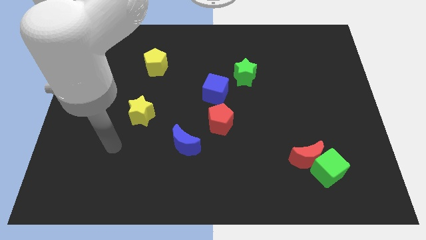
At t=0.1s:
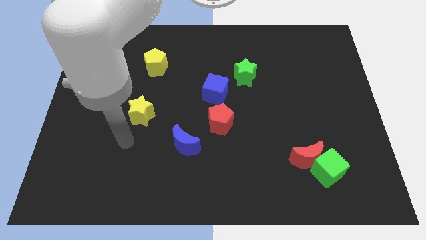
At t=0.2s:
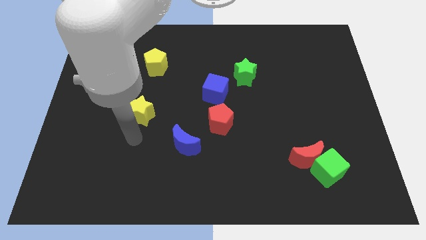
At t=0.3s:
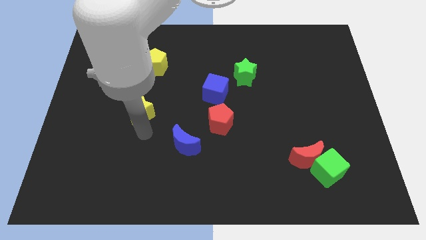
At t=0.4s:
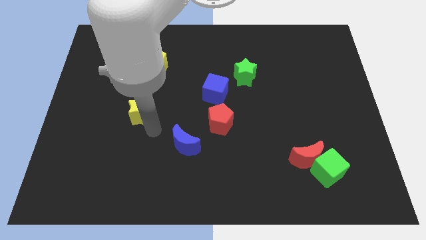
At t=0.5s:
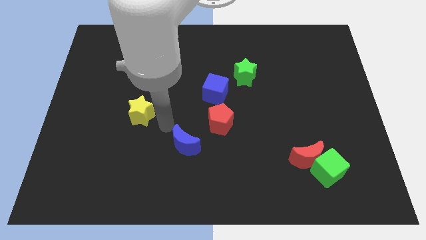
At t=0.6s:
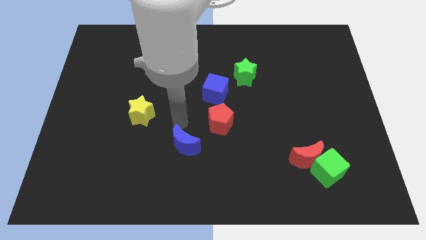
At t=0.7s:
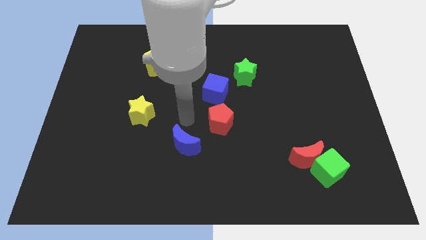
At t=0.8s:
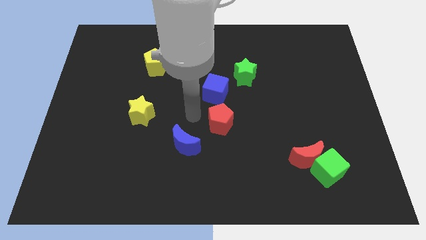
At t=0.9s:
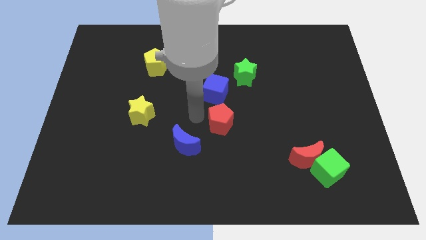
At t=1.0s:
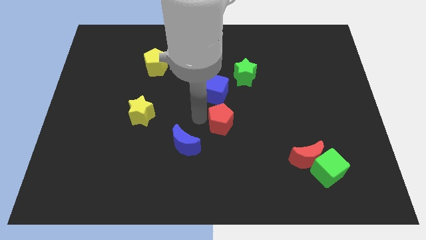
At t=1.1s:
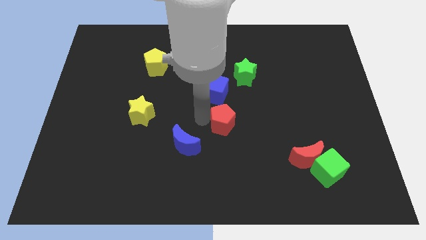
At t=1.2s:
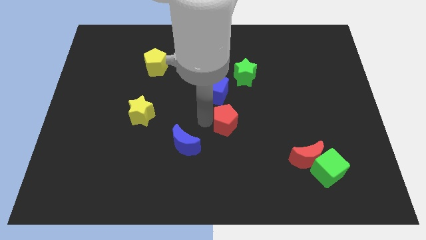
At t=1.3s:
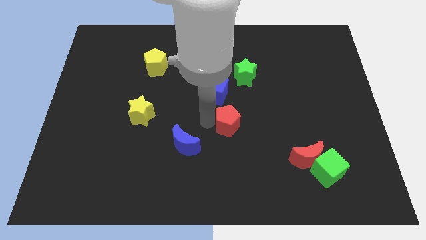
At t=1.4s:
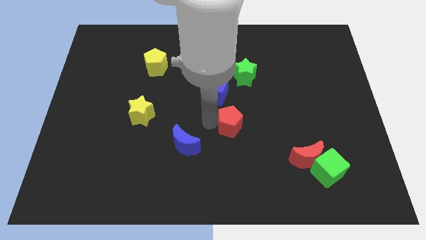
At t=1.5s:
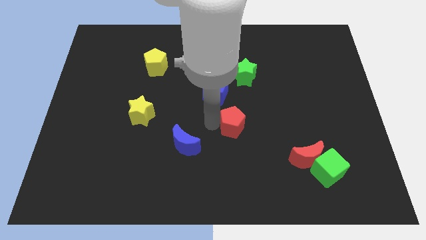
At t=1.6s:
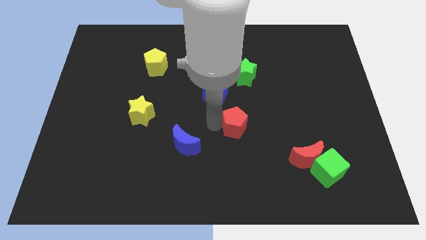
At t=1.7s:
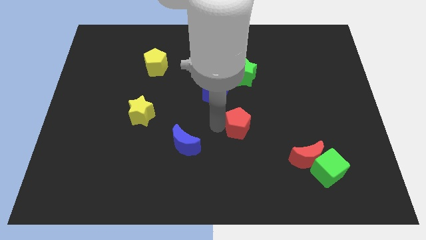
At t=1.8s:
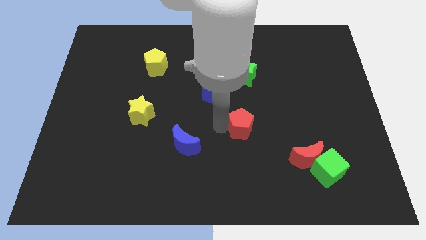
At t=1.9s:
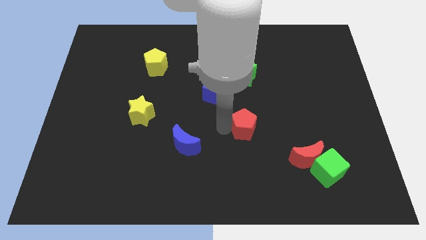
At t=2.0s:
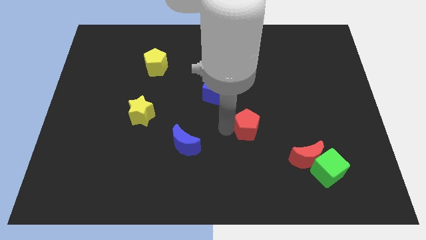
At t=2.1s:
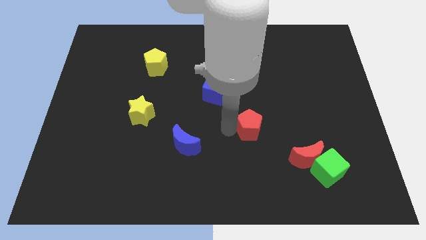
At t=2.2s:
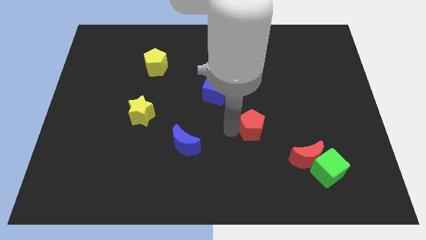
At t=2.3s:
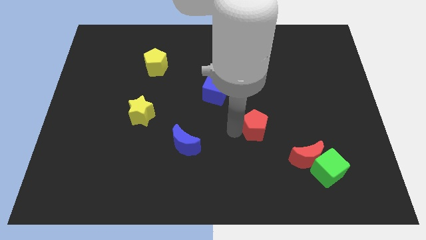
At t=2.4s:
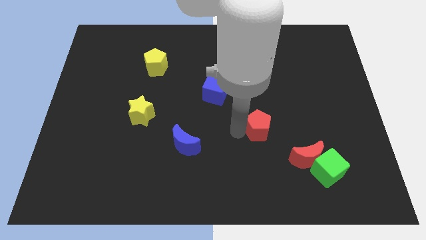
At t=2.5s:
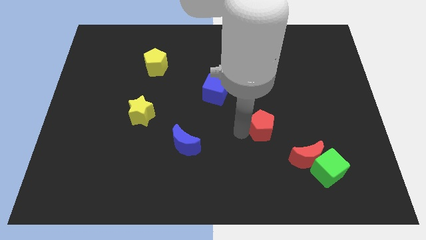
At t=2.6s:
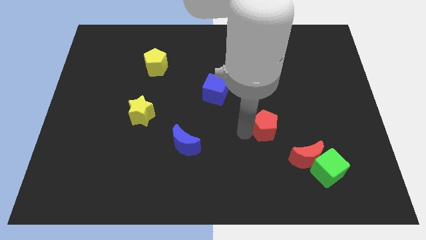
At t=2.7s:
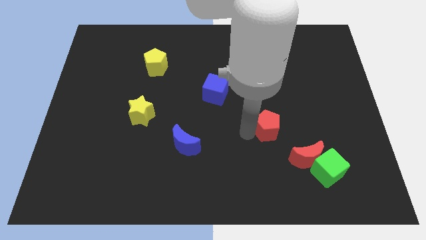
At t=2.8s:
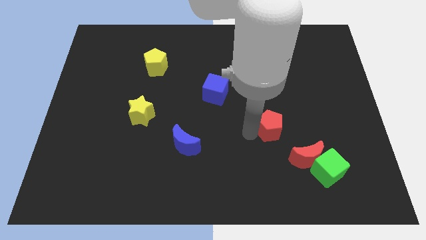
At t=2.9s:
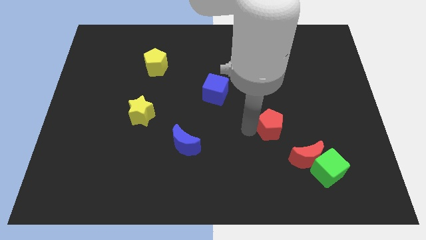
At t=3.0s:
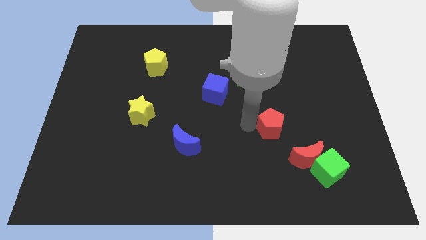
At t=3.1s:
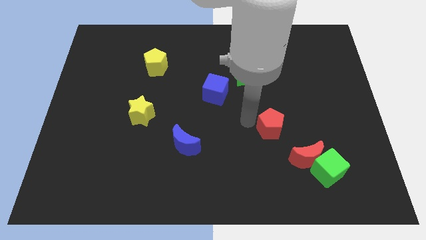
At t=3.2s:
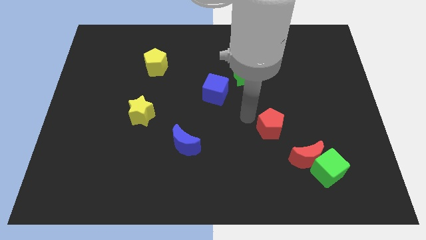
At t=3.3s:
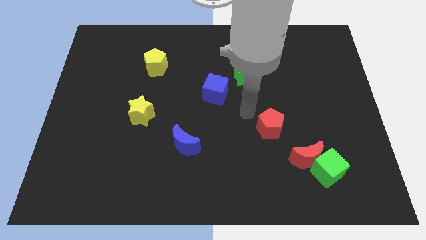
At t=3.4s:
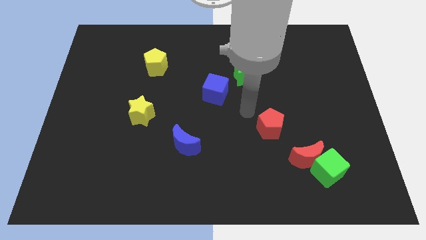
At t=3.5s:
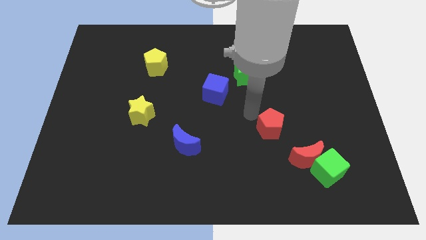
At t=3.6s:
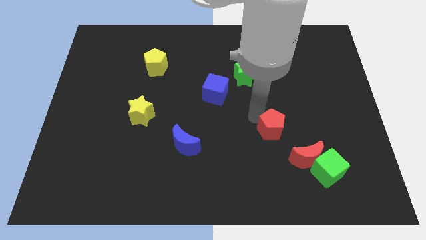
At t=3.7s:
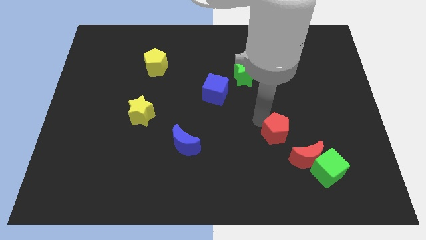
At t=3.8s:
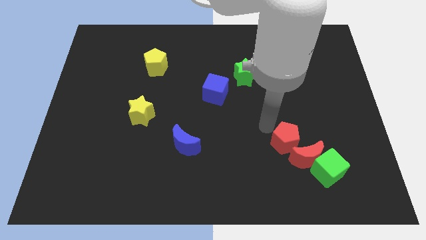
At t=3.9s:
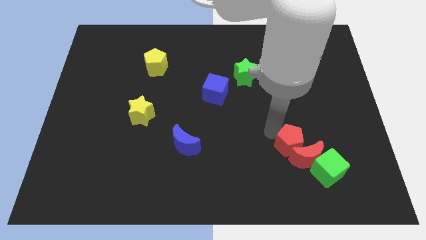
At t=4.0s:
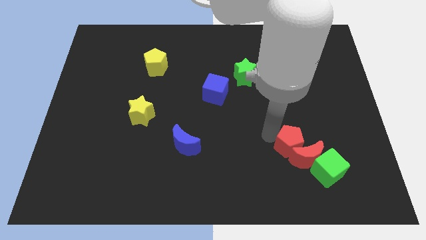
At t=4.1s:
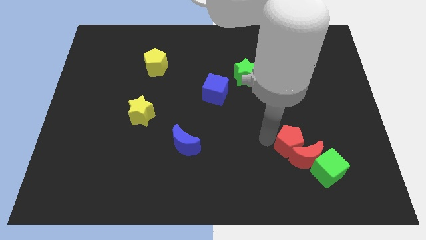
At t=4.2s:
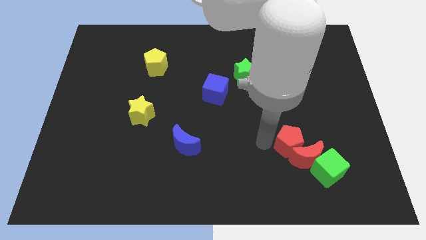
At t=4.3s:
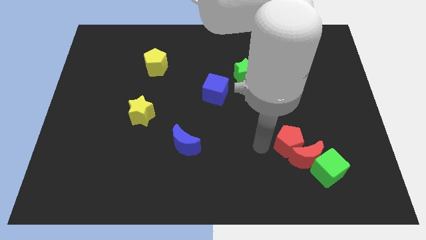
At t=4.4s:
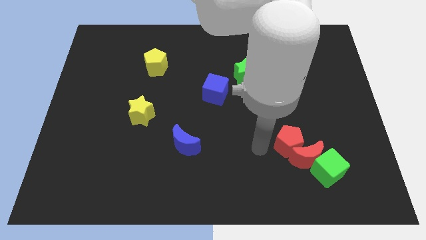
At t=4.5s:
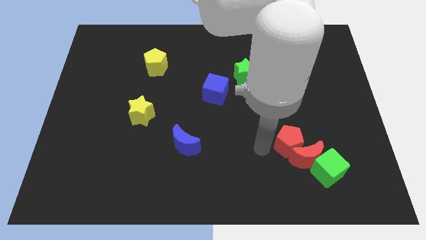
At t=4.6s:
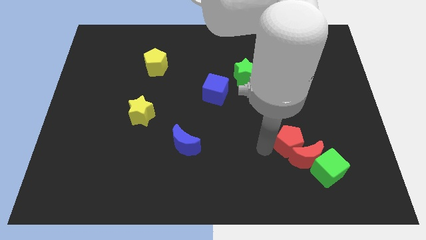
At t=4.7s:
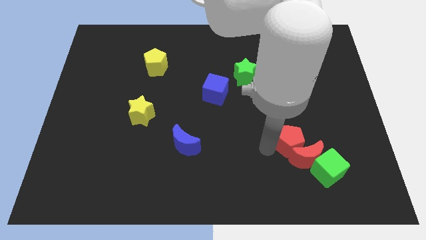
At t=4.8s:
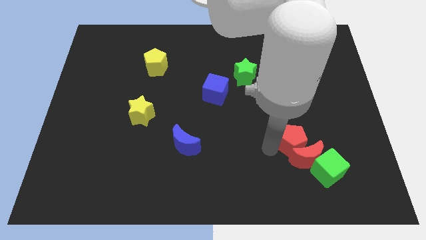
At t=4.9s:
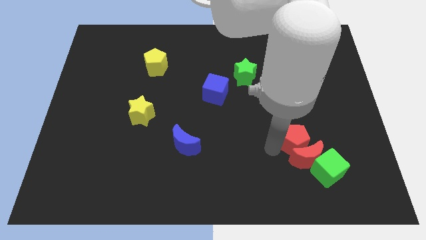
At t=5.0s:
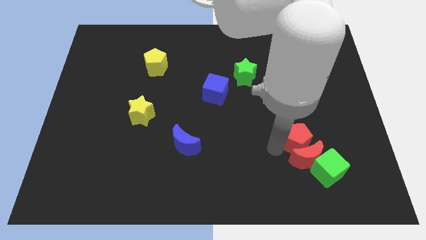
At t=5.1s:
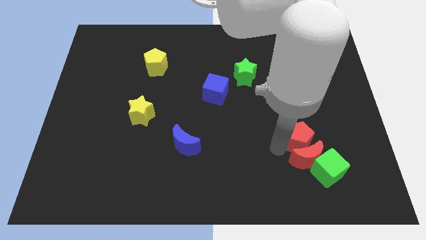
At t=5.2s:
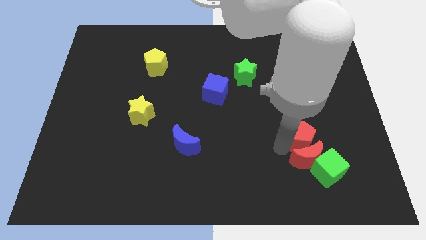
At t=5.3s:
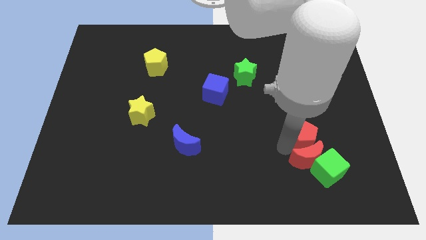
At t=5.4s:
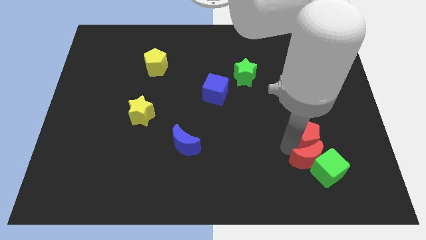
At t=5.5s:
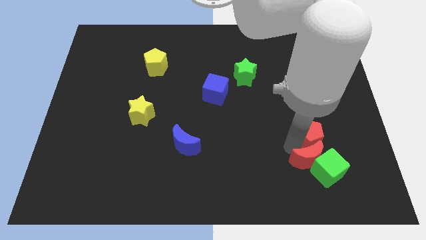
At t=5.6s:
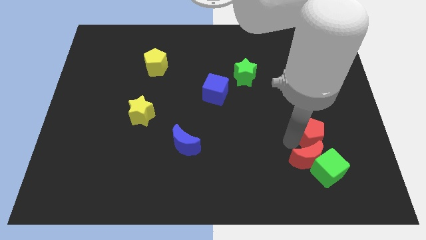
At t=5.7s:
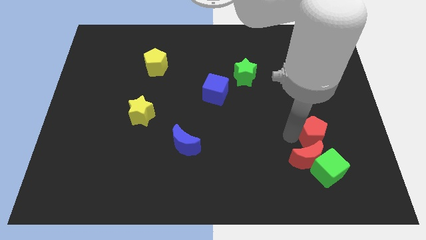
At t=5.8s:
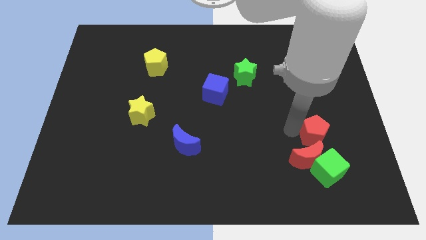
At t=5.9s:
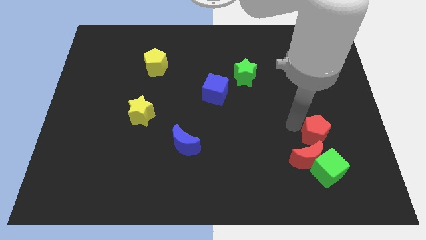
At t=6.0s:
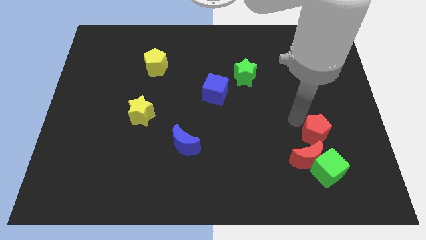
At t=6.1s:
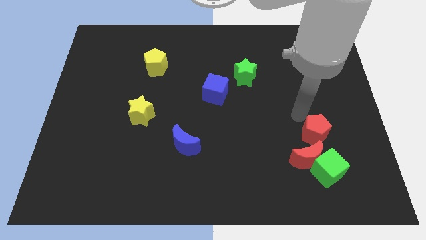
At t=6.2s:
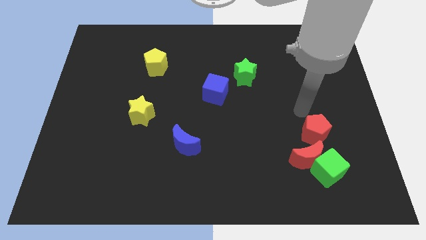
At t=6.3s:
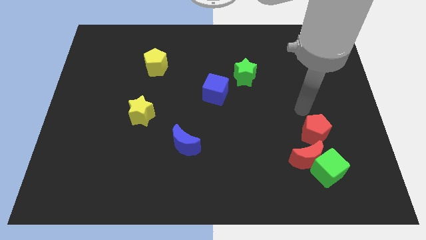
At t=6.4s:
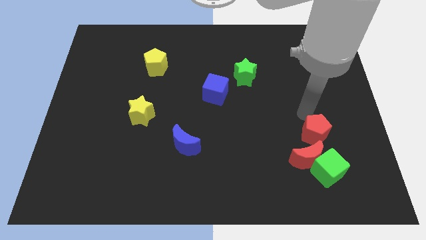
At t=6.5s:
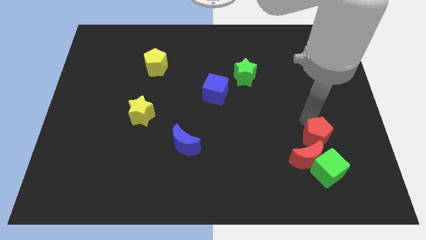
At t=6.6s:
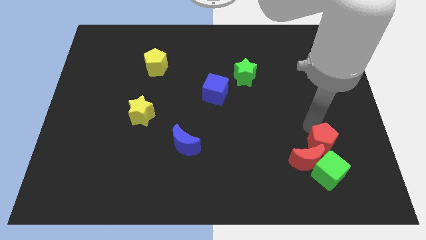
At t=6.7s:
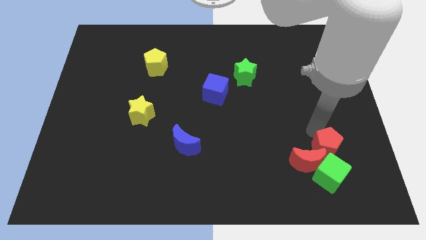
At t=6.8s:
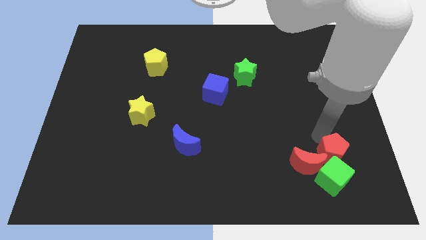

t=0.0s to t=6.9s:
slide the red pentagon next to the green cube
